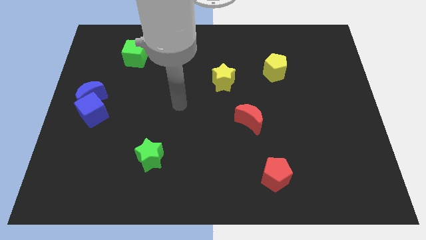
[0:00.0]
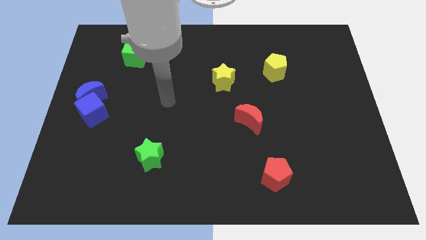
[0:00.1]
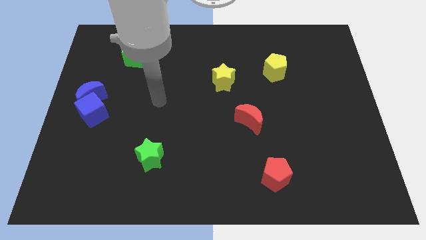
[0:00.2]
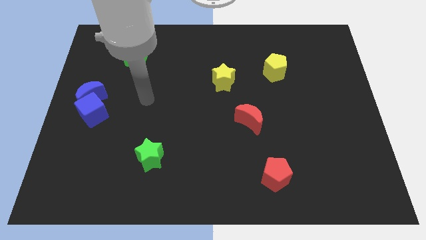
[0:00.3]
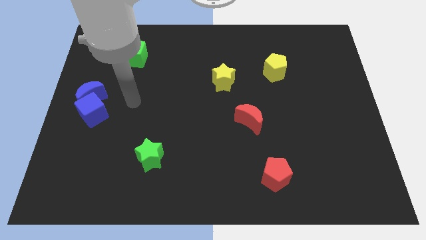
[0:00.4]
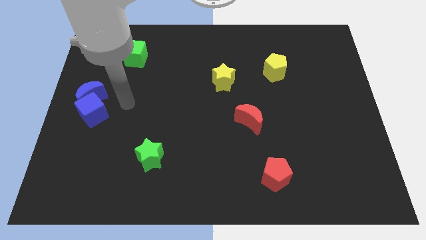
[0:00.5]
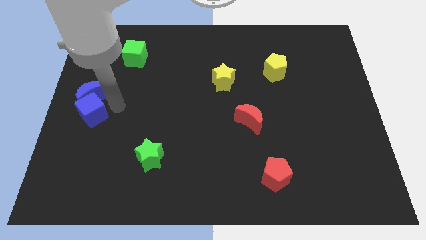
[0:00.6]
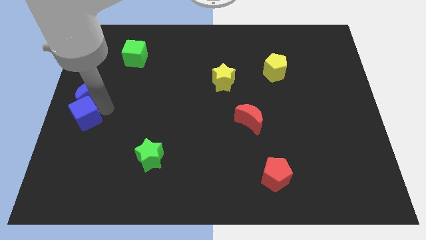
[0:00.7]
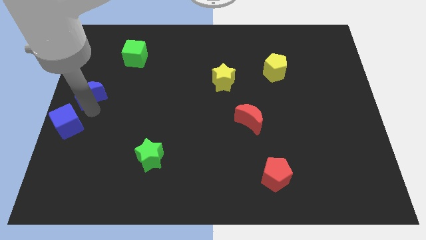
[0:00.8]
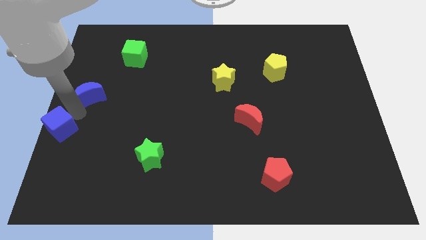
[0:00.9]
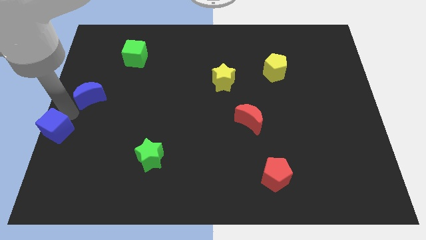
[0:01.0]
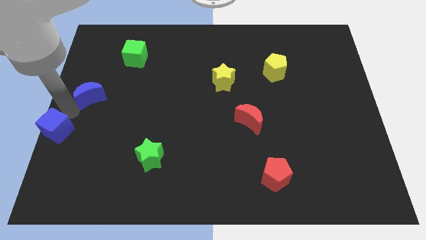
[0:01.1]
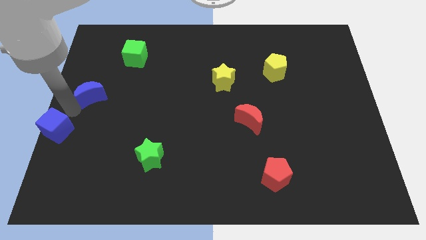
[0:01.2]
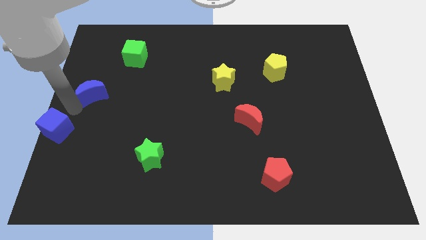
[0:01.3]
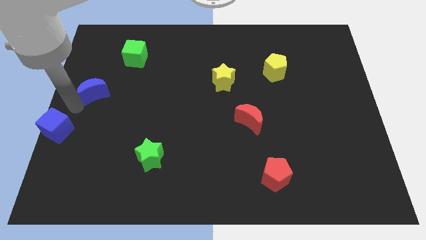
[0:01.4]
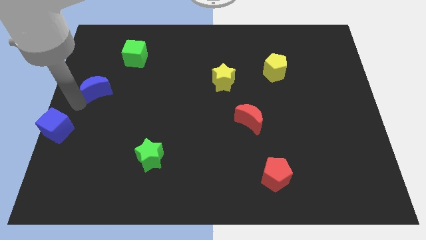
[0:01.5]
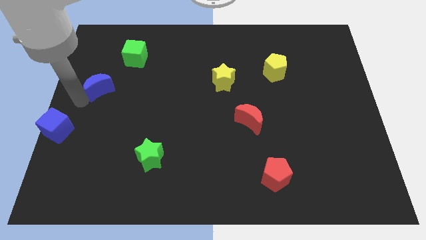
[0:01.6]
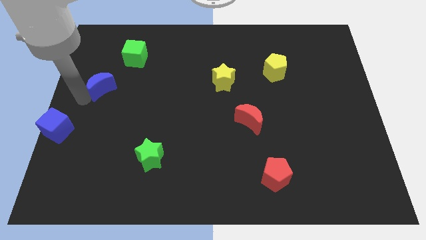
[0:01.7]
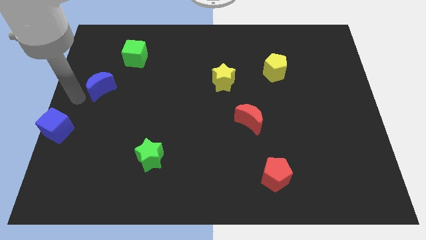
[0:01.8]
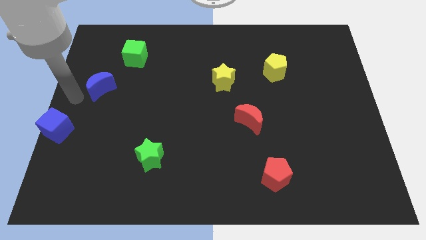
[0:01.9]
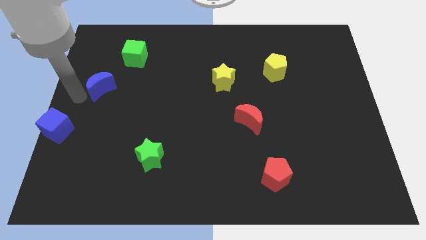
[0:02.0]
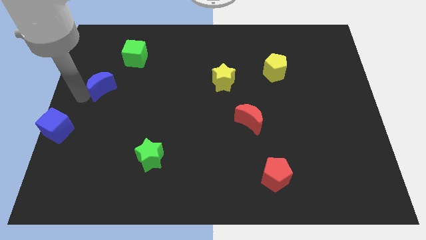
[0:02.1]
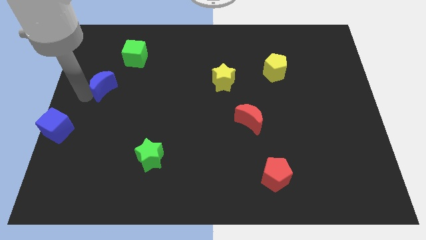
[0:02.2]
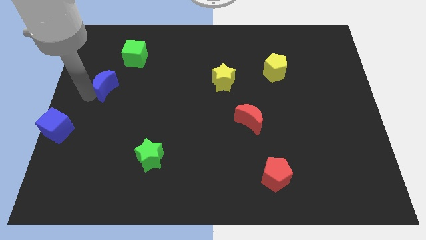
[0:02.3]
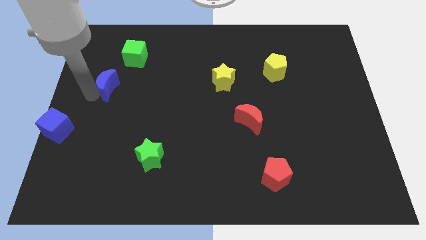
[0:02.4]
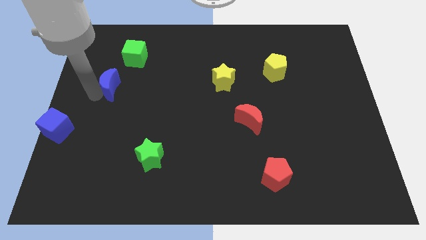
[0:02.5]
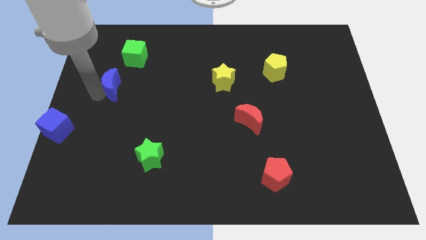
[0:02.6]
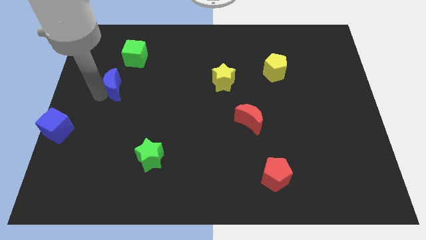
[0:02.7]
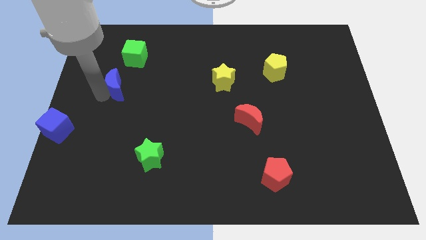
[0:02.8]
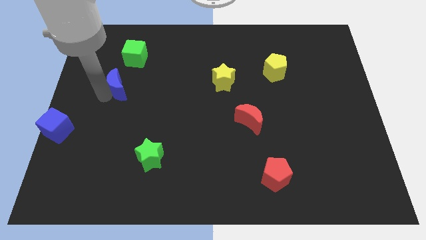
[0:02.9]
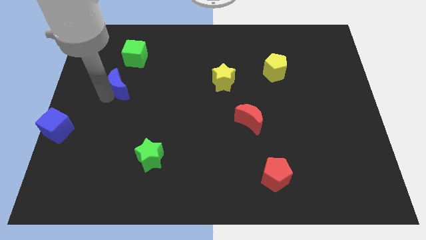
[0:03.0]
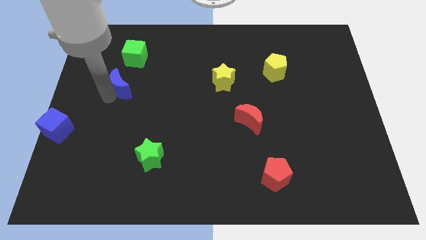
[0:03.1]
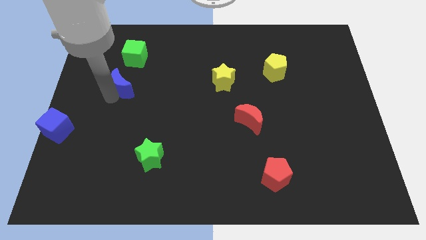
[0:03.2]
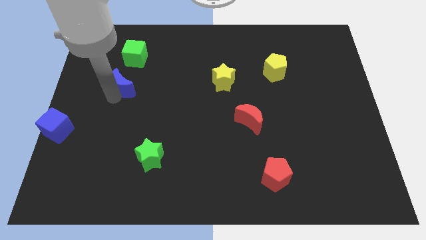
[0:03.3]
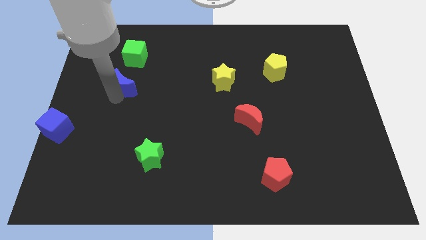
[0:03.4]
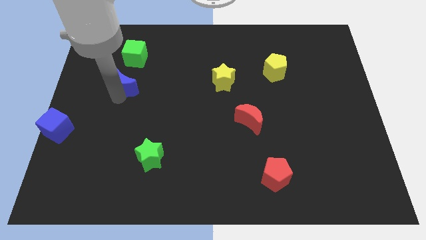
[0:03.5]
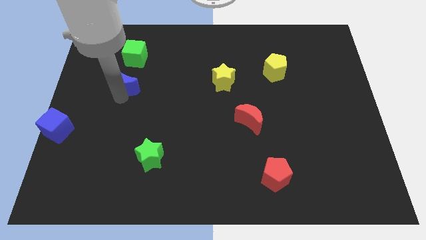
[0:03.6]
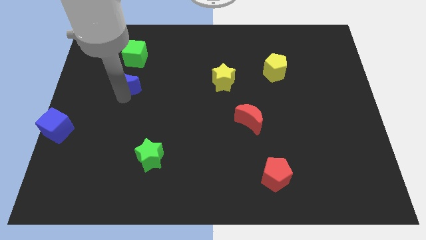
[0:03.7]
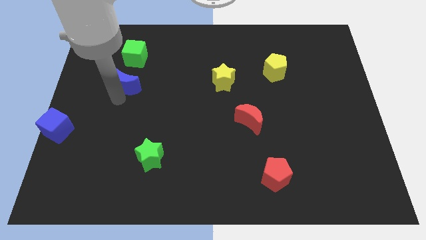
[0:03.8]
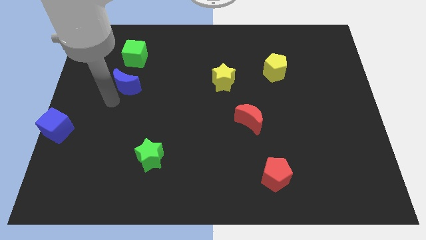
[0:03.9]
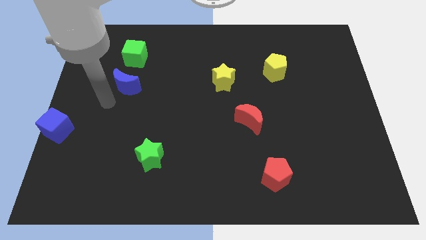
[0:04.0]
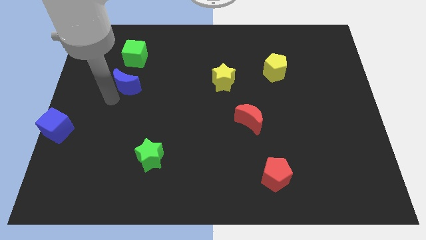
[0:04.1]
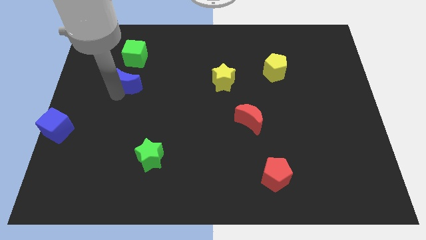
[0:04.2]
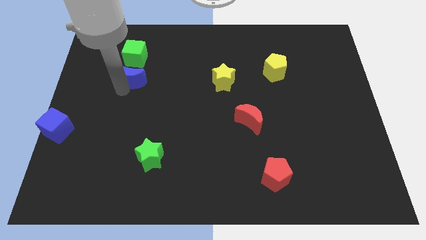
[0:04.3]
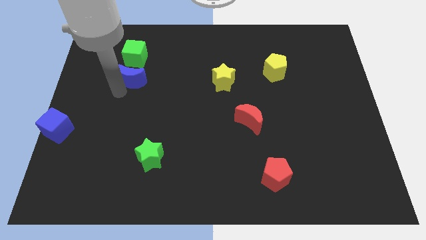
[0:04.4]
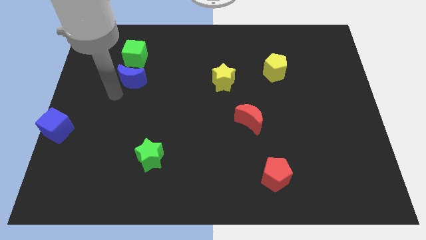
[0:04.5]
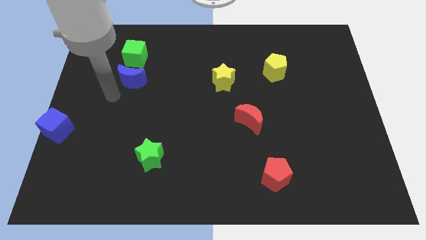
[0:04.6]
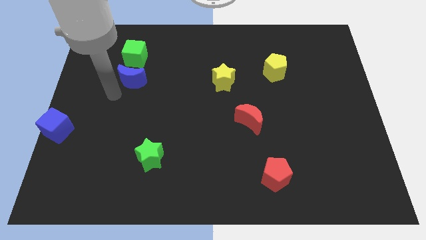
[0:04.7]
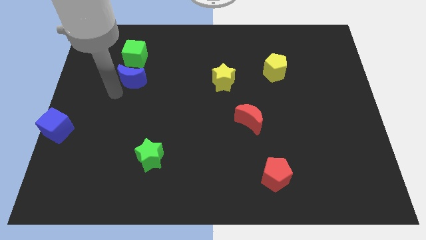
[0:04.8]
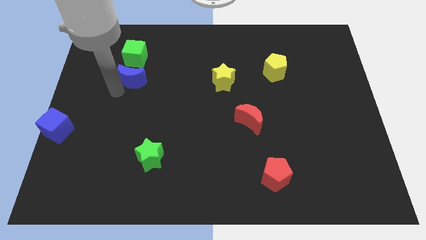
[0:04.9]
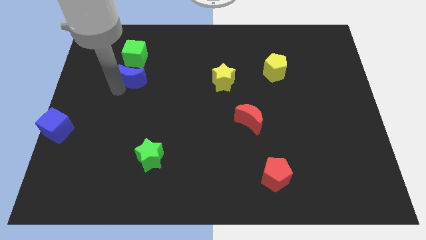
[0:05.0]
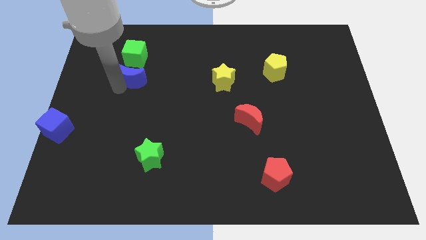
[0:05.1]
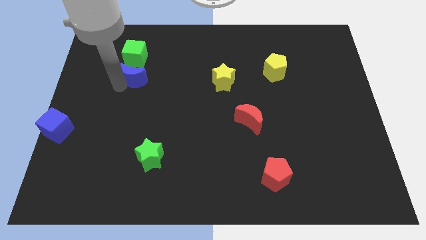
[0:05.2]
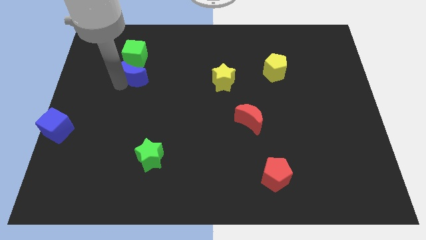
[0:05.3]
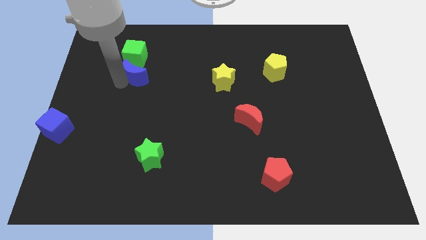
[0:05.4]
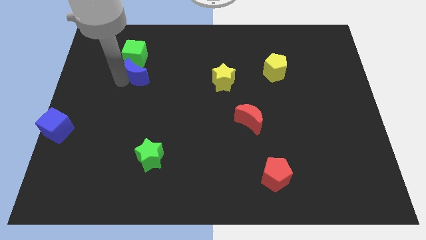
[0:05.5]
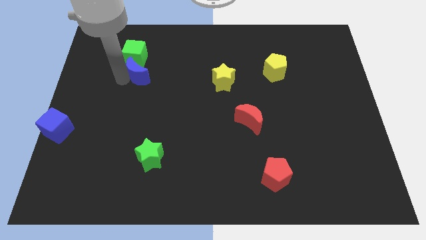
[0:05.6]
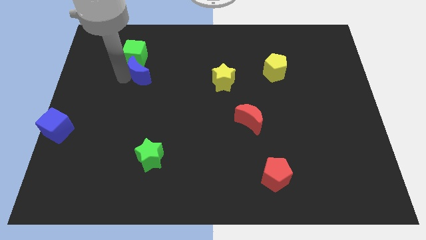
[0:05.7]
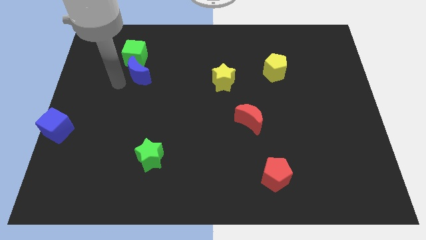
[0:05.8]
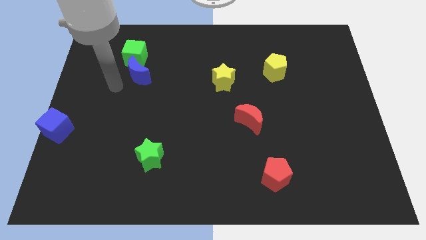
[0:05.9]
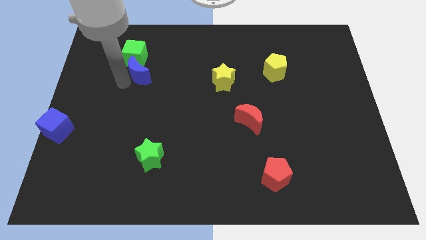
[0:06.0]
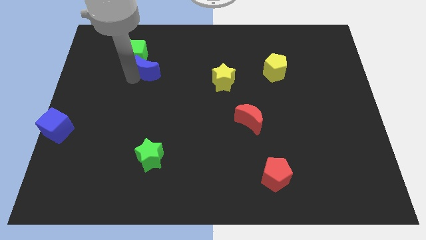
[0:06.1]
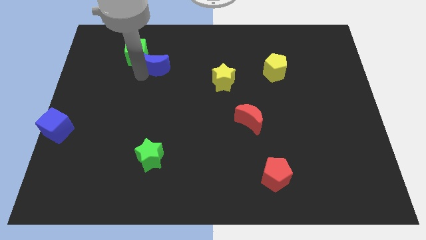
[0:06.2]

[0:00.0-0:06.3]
move the blue moon to the right side of the green cube

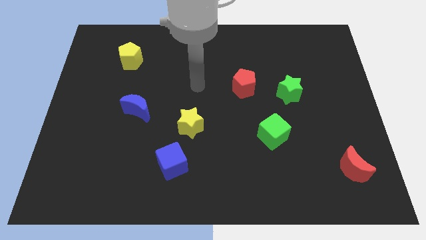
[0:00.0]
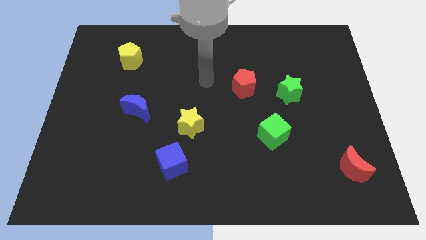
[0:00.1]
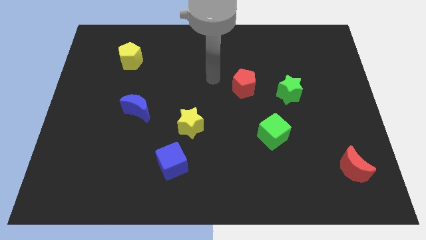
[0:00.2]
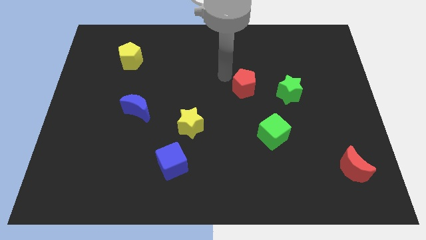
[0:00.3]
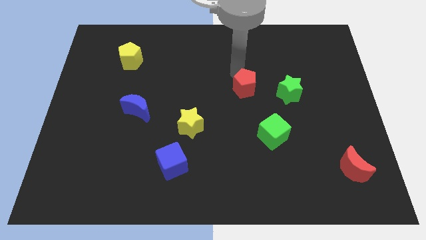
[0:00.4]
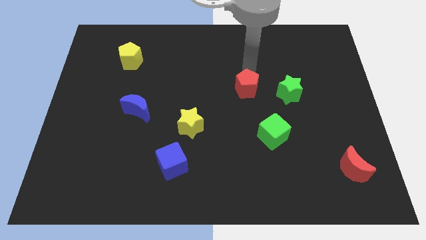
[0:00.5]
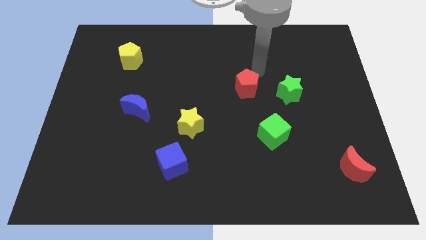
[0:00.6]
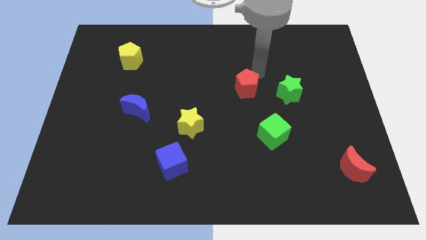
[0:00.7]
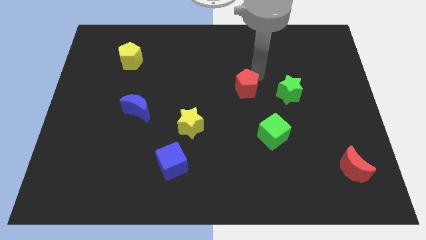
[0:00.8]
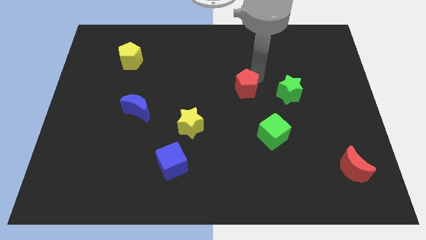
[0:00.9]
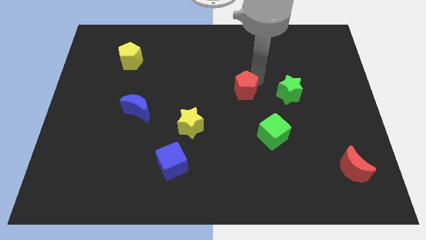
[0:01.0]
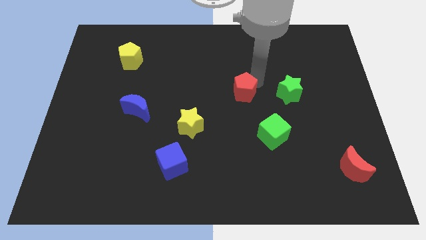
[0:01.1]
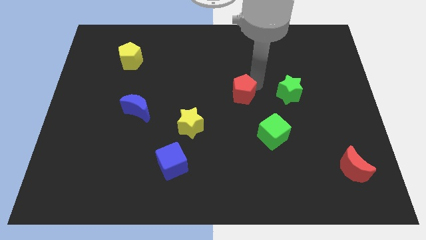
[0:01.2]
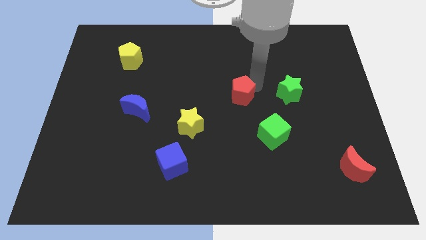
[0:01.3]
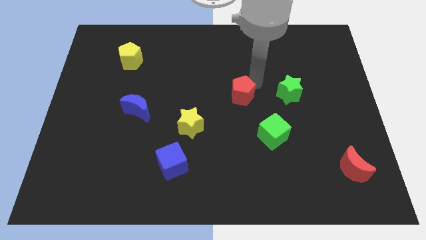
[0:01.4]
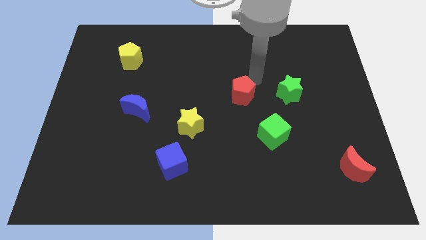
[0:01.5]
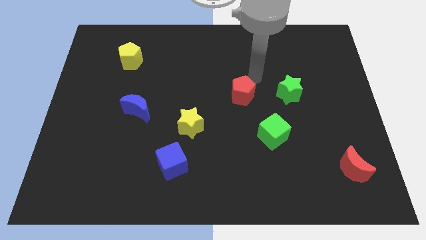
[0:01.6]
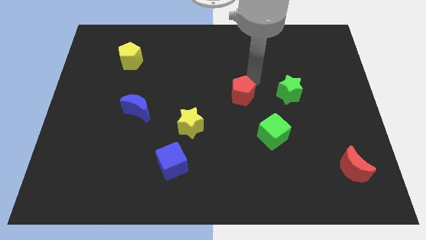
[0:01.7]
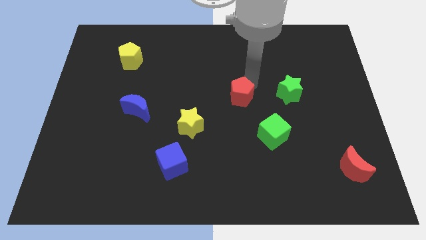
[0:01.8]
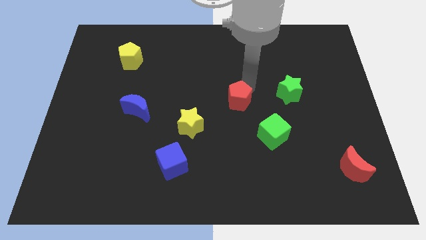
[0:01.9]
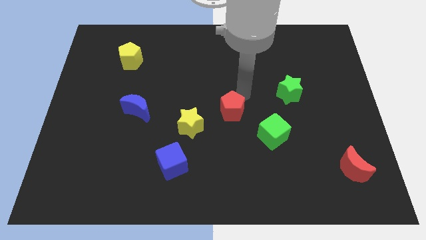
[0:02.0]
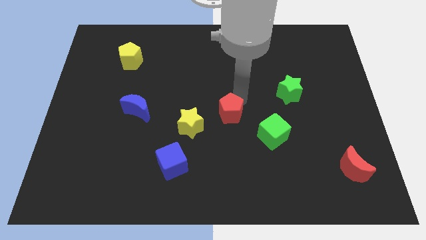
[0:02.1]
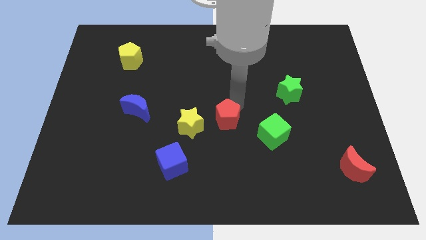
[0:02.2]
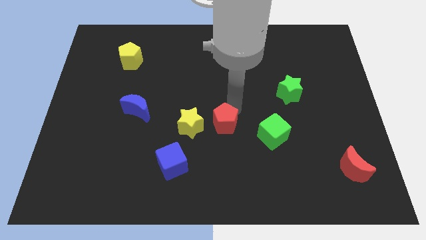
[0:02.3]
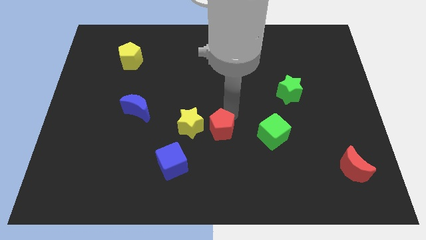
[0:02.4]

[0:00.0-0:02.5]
put the red pentagon to the bottom right side of the yellow star
